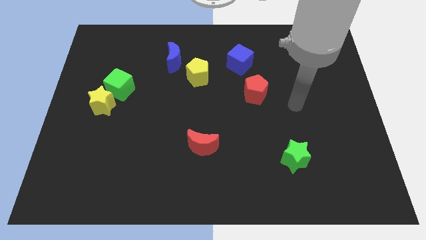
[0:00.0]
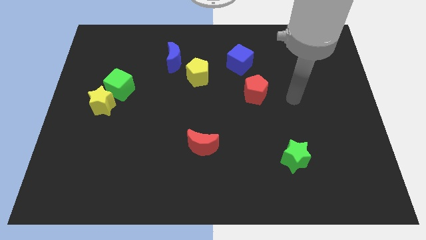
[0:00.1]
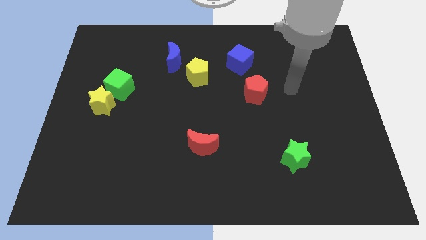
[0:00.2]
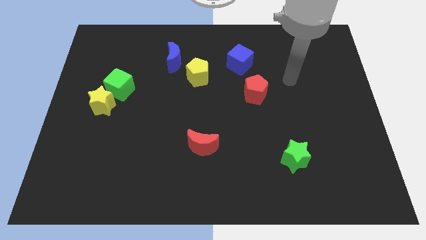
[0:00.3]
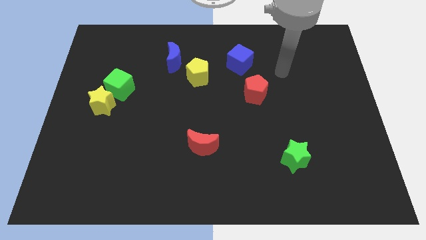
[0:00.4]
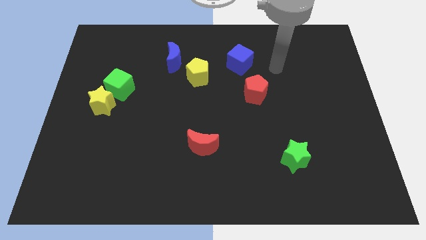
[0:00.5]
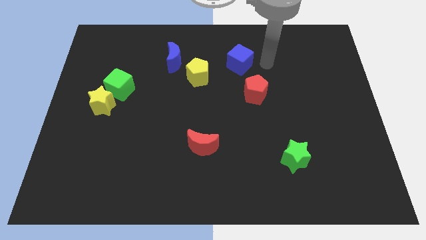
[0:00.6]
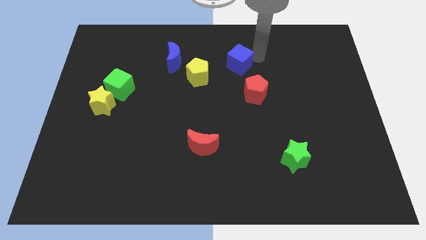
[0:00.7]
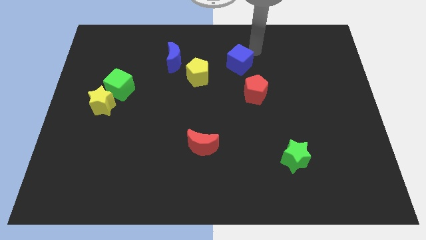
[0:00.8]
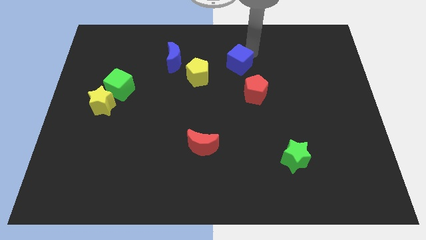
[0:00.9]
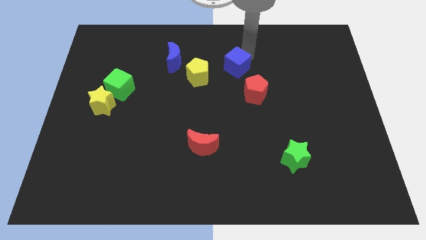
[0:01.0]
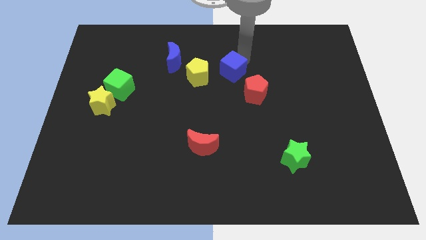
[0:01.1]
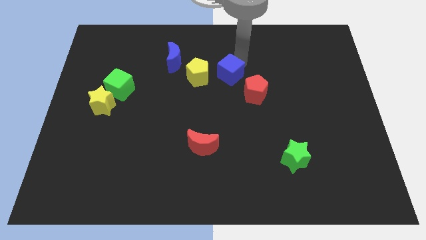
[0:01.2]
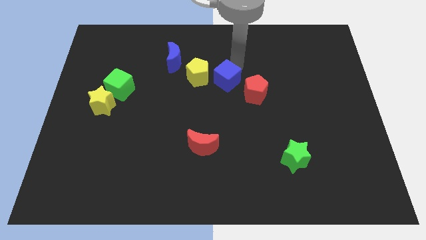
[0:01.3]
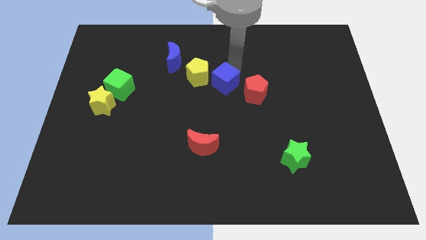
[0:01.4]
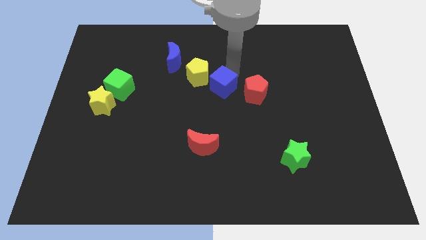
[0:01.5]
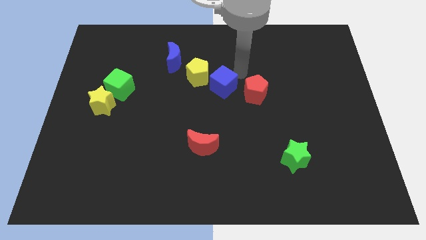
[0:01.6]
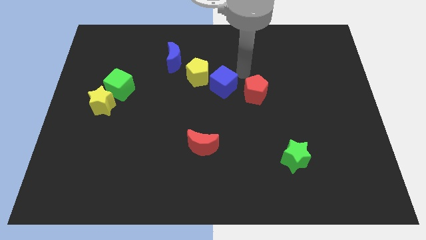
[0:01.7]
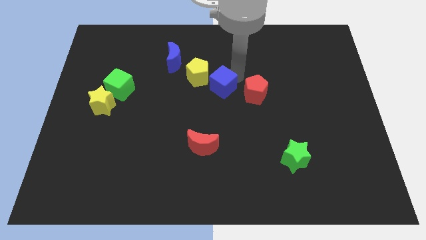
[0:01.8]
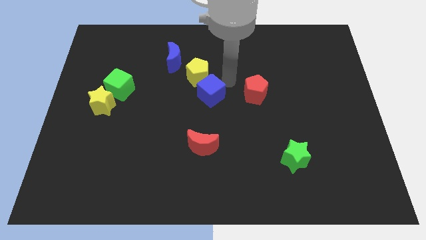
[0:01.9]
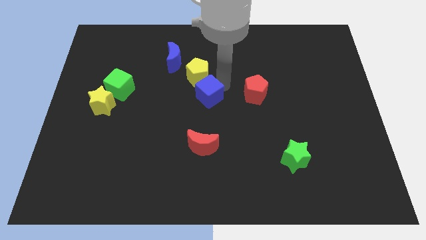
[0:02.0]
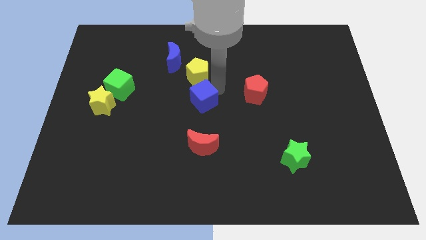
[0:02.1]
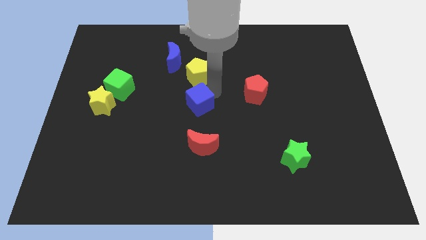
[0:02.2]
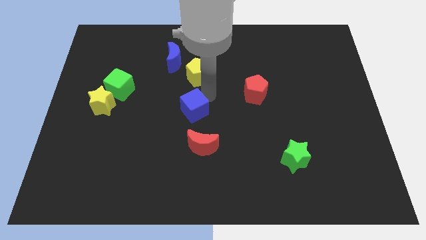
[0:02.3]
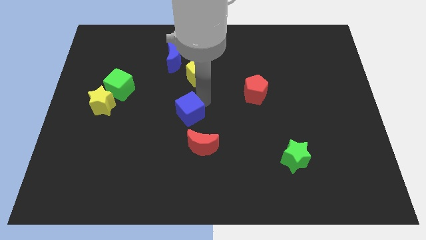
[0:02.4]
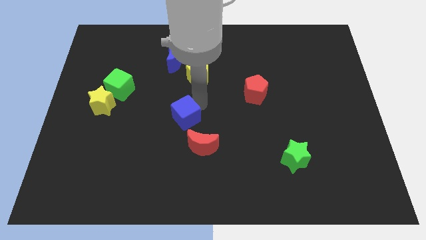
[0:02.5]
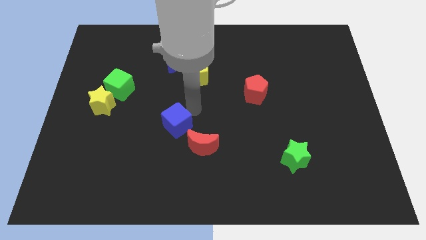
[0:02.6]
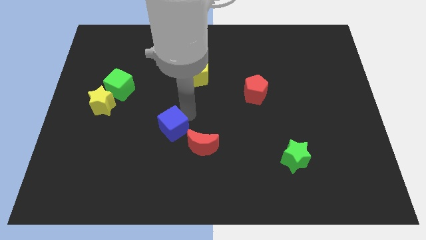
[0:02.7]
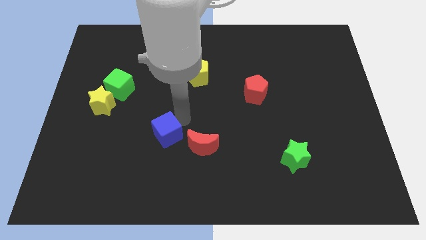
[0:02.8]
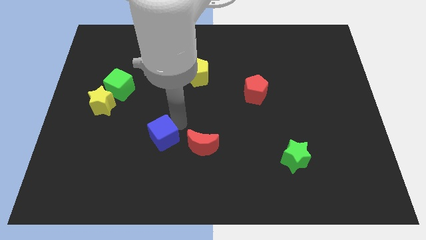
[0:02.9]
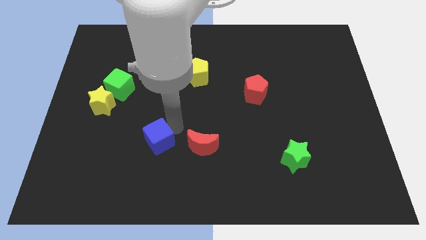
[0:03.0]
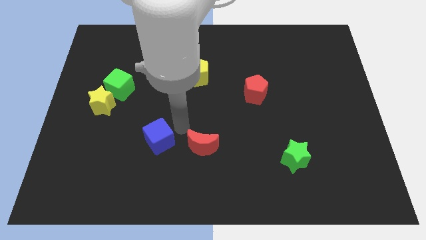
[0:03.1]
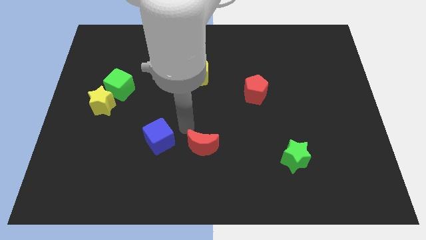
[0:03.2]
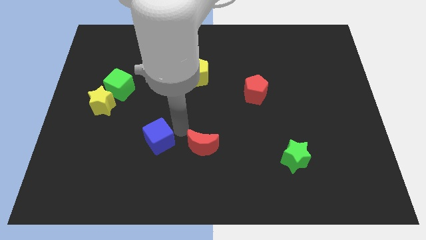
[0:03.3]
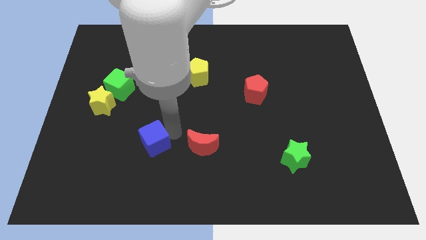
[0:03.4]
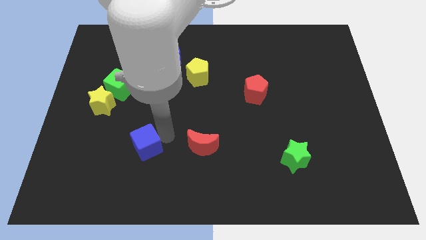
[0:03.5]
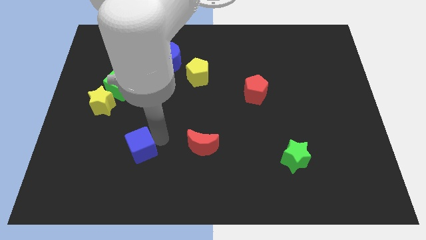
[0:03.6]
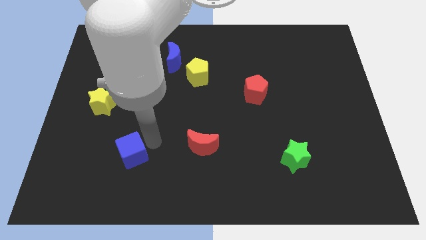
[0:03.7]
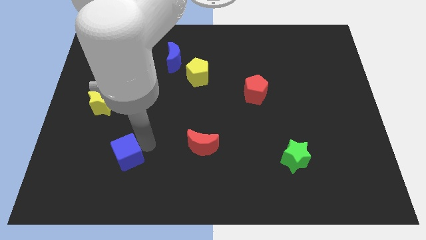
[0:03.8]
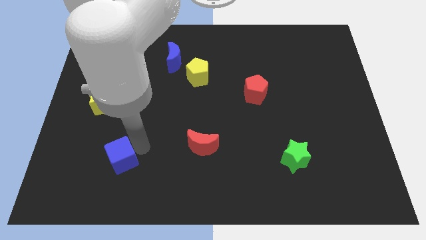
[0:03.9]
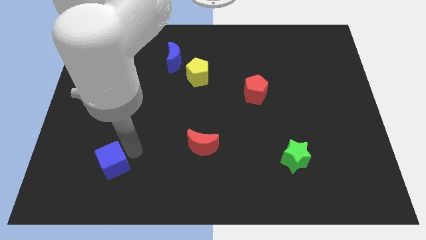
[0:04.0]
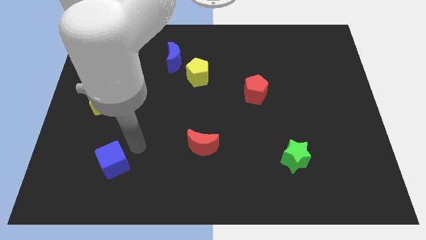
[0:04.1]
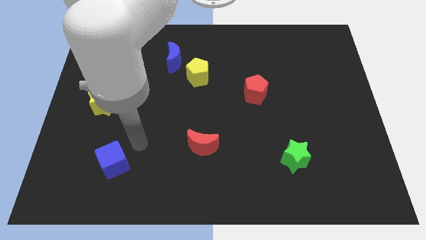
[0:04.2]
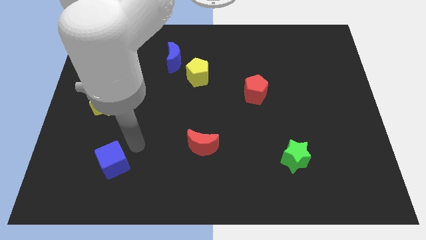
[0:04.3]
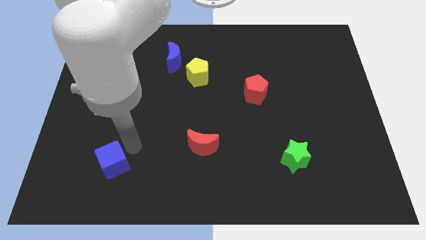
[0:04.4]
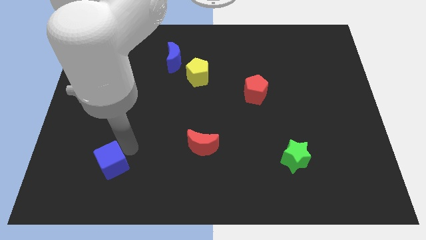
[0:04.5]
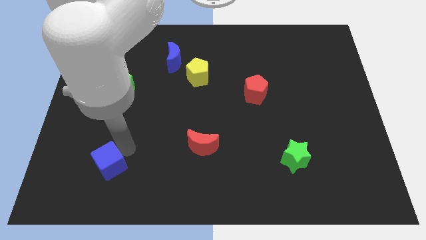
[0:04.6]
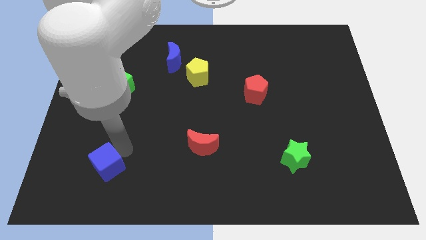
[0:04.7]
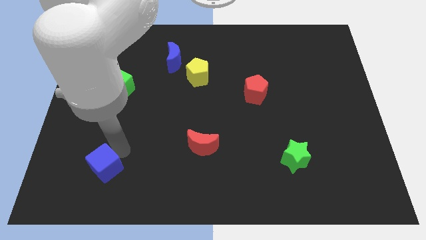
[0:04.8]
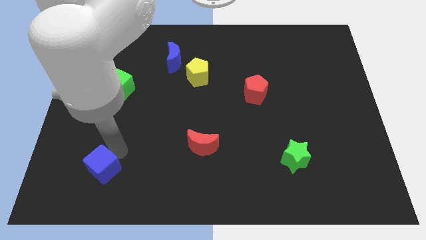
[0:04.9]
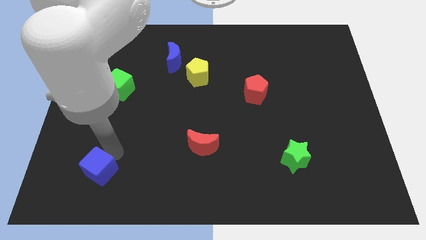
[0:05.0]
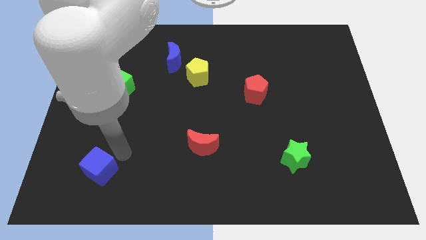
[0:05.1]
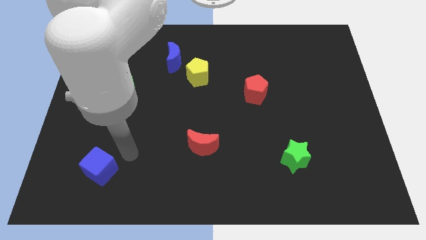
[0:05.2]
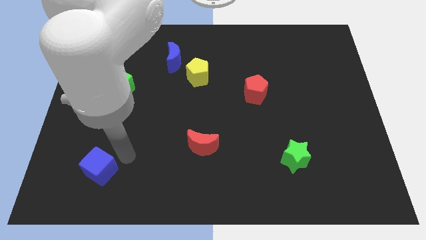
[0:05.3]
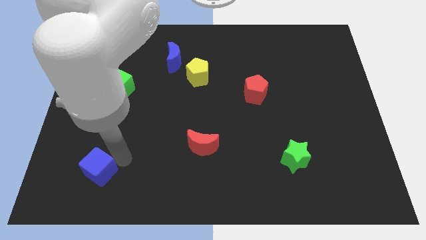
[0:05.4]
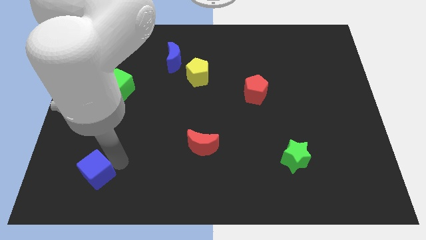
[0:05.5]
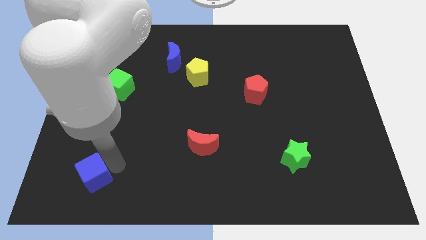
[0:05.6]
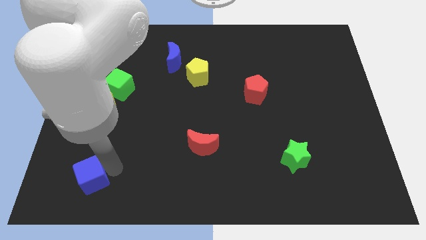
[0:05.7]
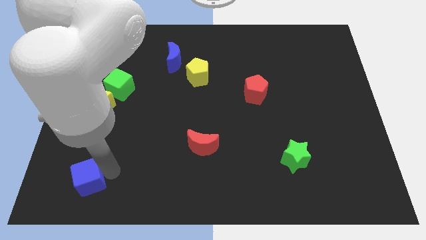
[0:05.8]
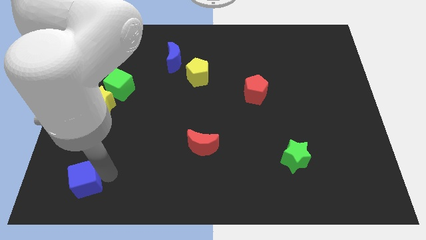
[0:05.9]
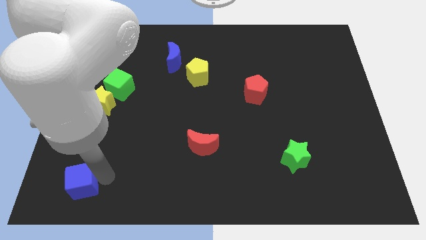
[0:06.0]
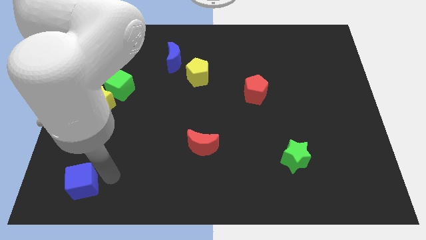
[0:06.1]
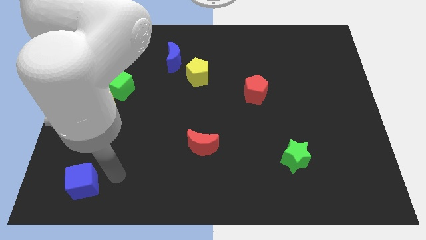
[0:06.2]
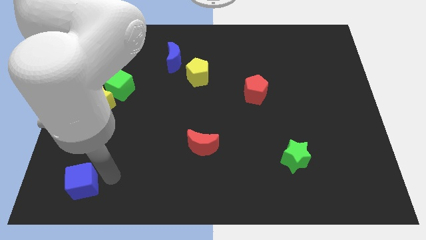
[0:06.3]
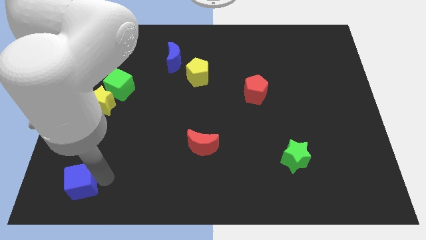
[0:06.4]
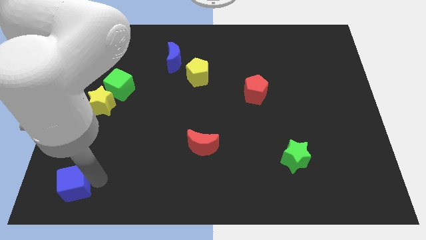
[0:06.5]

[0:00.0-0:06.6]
push the blue cube to the lower left corner
